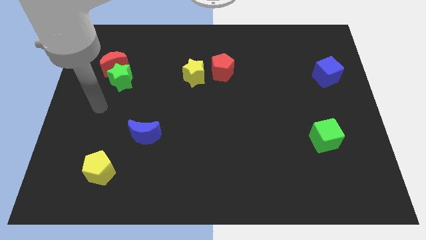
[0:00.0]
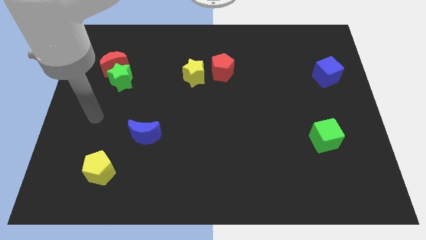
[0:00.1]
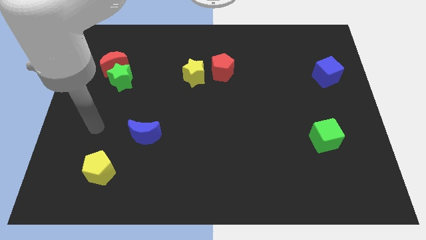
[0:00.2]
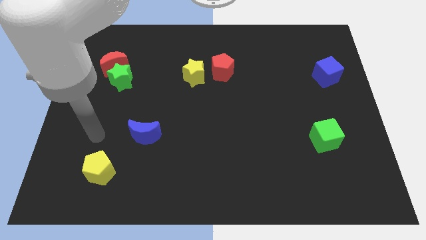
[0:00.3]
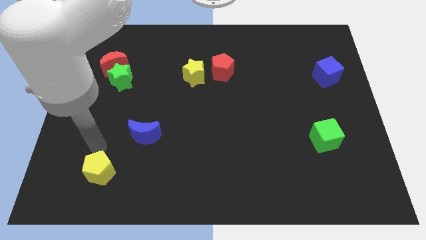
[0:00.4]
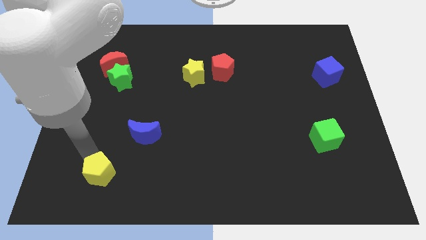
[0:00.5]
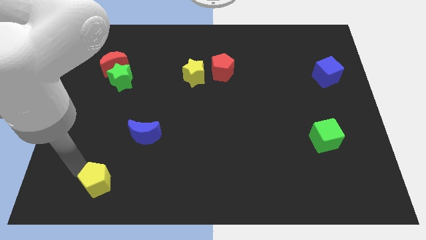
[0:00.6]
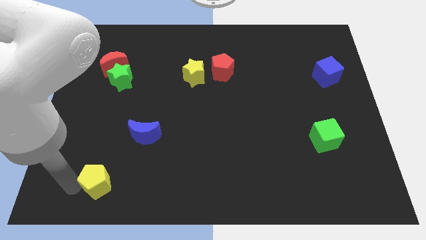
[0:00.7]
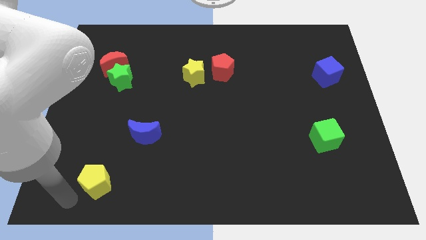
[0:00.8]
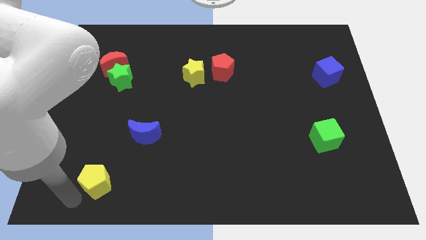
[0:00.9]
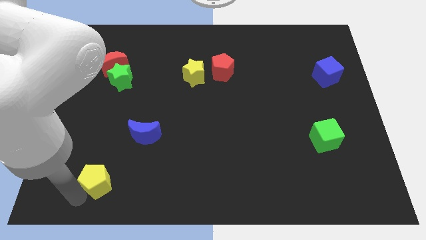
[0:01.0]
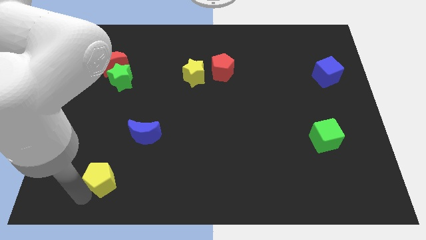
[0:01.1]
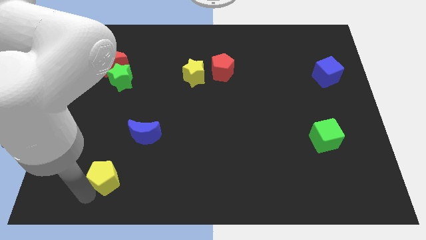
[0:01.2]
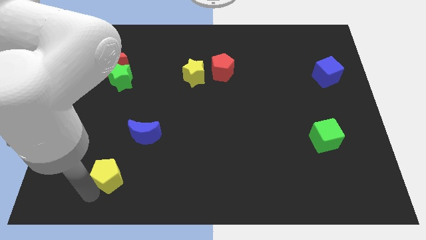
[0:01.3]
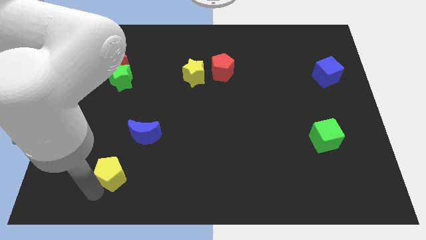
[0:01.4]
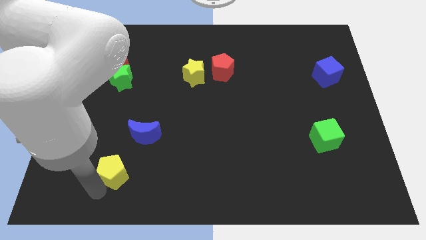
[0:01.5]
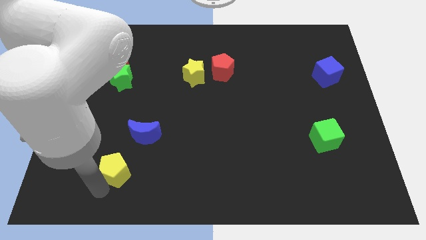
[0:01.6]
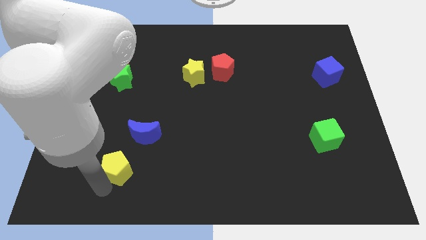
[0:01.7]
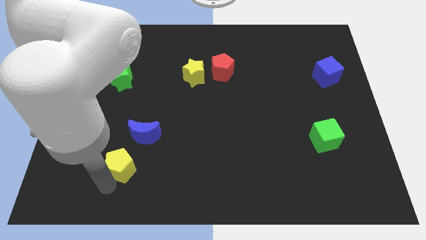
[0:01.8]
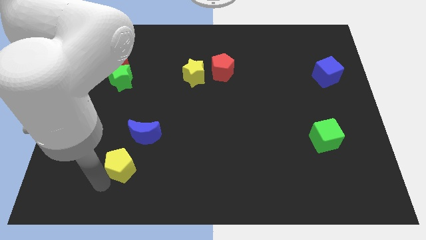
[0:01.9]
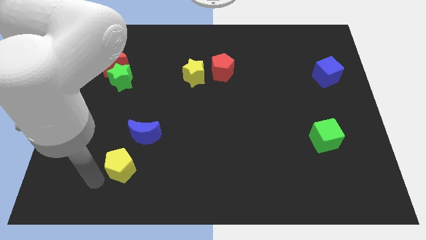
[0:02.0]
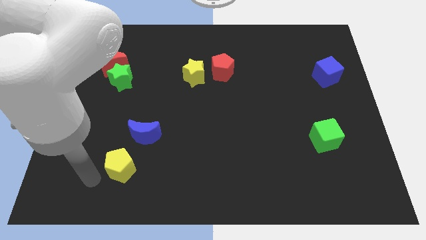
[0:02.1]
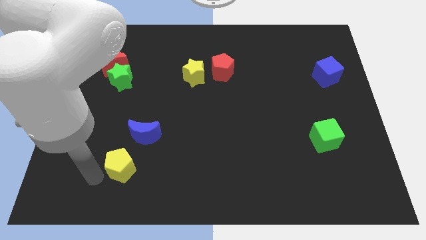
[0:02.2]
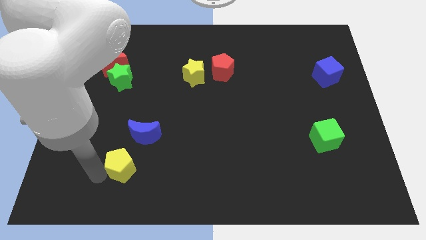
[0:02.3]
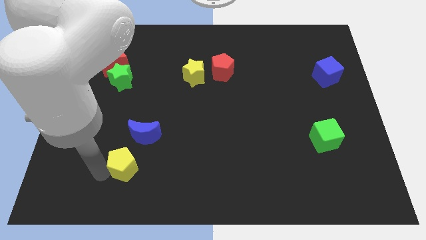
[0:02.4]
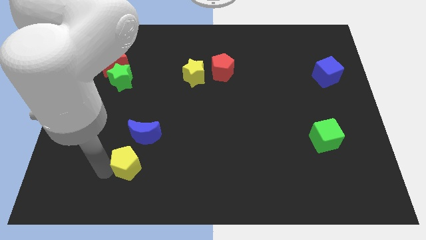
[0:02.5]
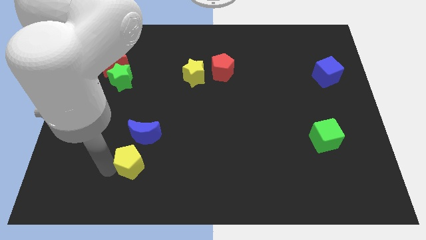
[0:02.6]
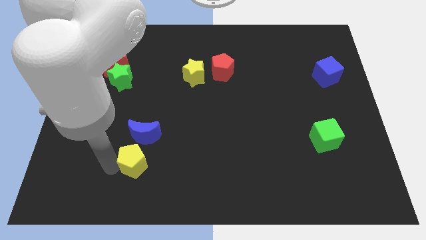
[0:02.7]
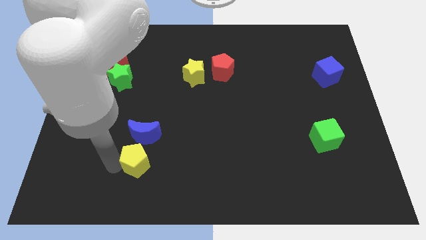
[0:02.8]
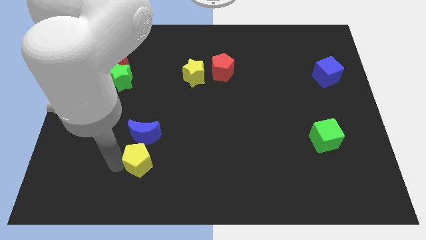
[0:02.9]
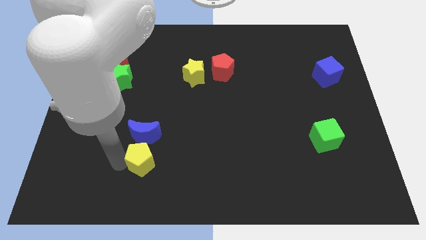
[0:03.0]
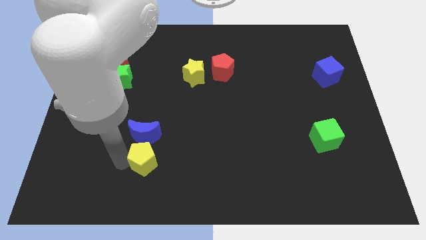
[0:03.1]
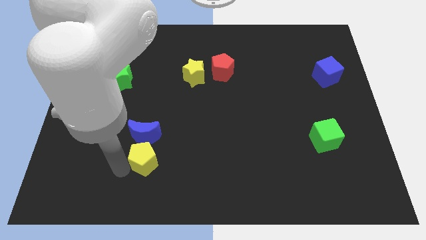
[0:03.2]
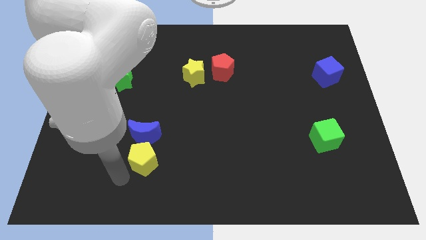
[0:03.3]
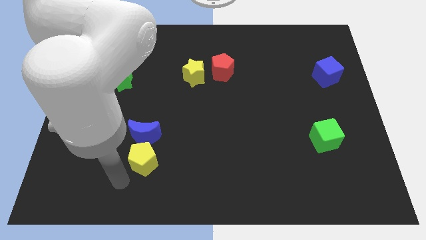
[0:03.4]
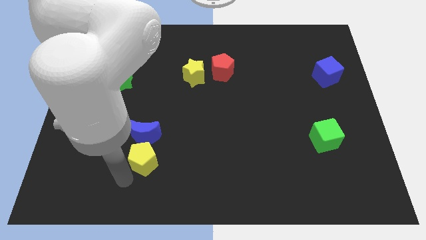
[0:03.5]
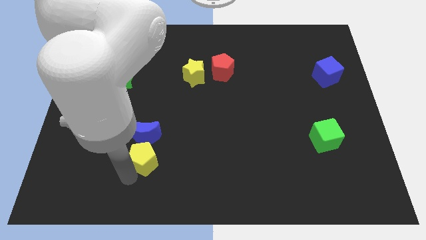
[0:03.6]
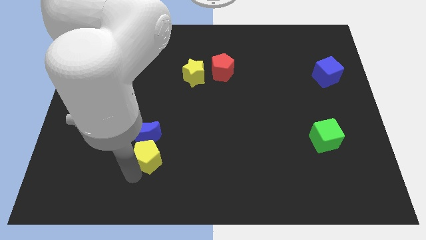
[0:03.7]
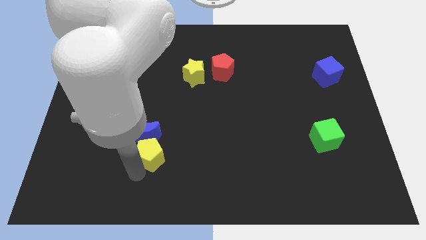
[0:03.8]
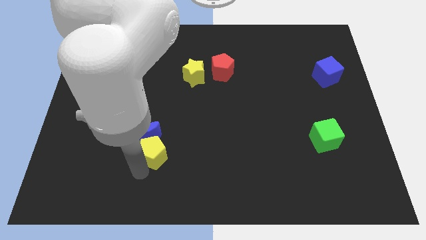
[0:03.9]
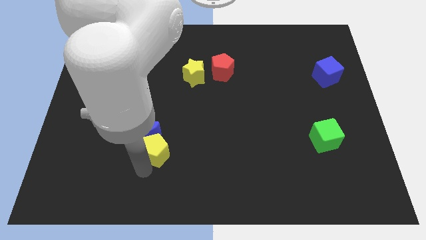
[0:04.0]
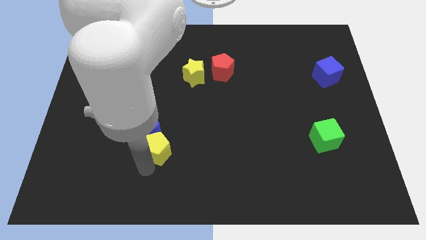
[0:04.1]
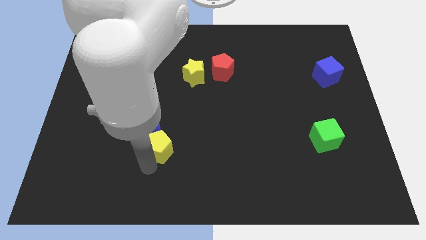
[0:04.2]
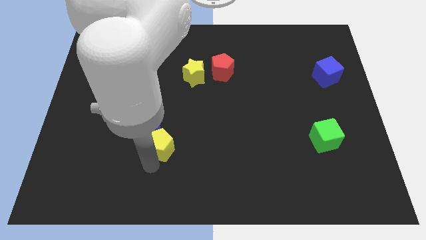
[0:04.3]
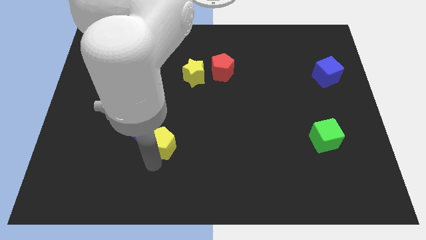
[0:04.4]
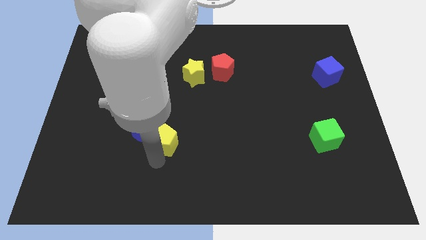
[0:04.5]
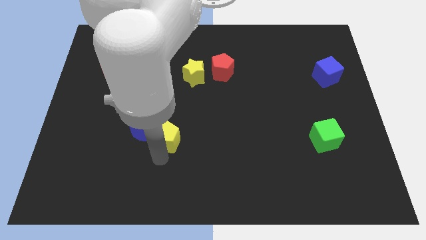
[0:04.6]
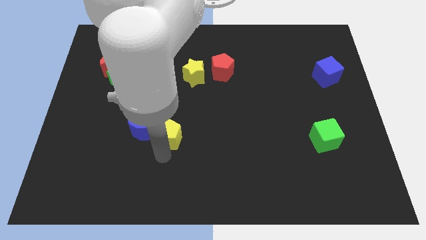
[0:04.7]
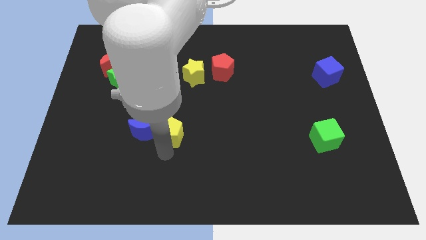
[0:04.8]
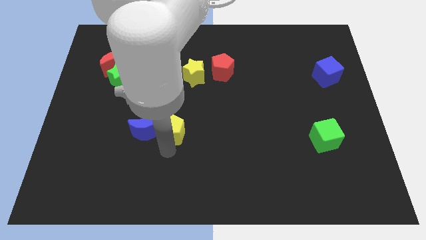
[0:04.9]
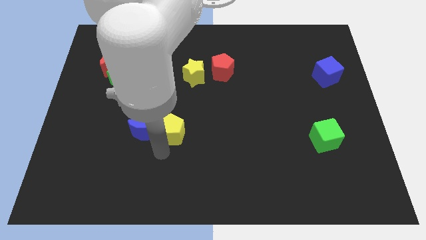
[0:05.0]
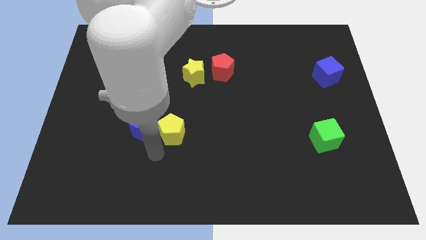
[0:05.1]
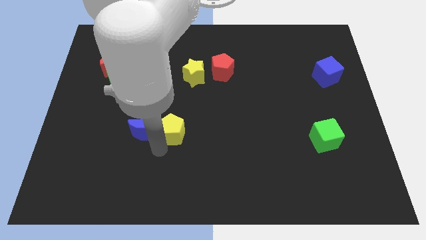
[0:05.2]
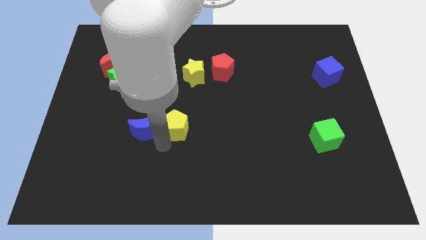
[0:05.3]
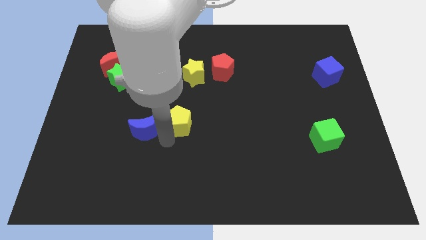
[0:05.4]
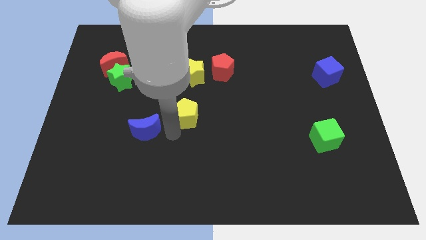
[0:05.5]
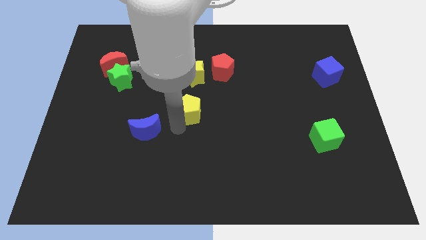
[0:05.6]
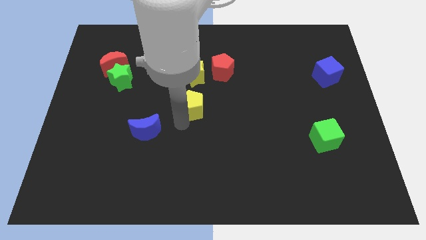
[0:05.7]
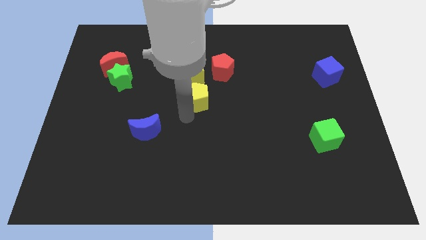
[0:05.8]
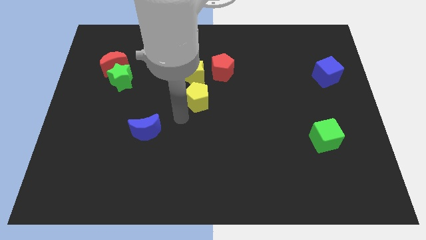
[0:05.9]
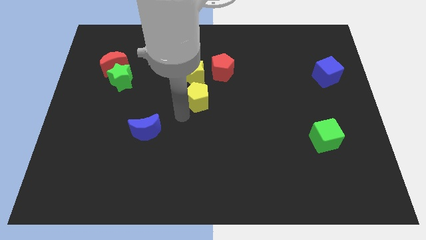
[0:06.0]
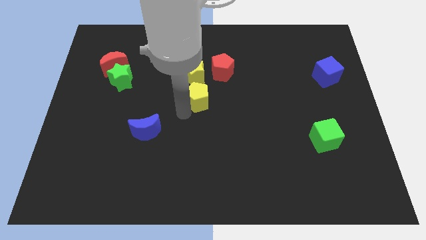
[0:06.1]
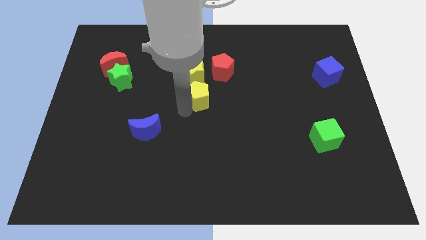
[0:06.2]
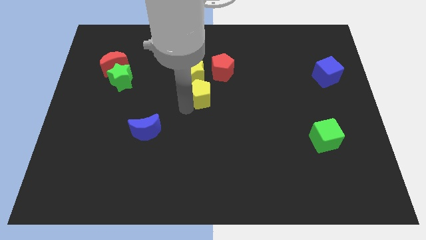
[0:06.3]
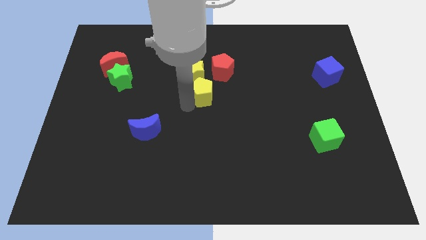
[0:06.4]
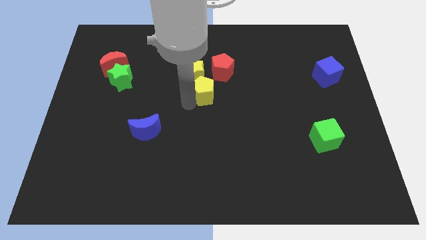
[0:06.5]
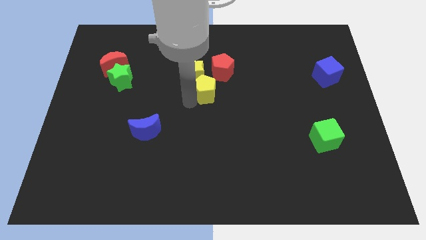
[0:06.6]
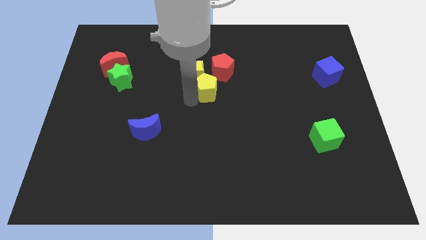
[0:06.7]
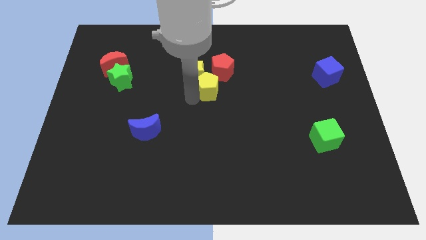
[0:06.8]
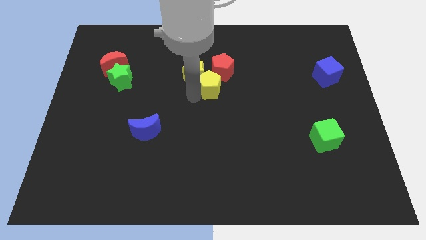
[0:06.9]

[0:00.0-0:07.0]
move the yellow pentagon to the red pentagon
